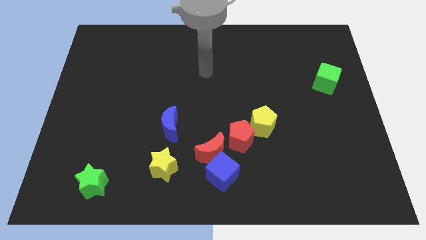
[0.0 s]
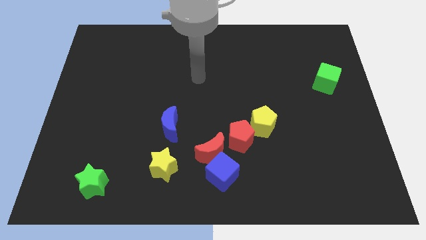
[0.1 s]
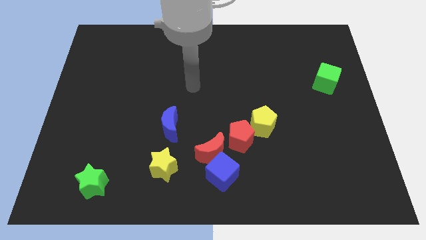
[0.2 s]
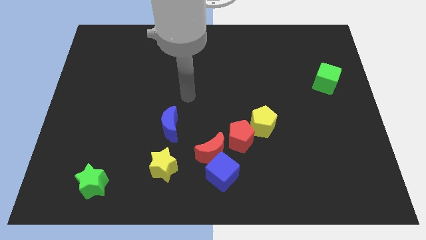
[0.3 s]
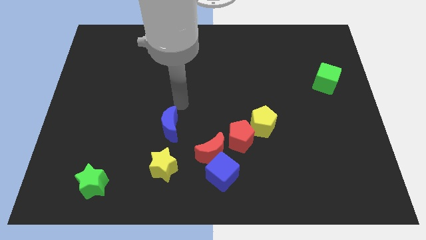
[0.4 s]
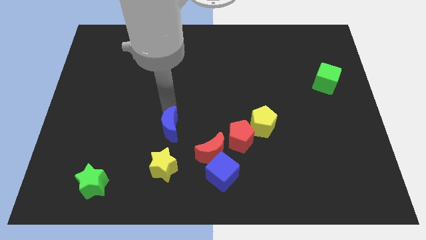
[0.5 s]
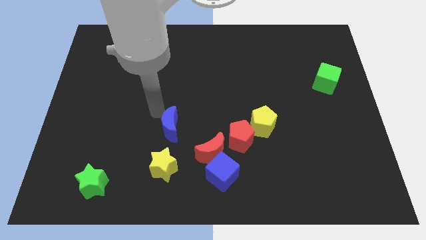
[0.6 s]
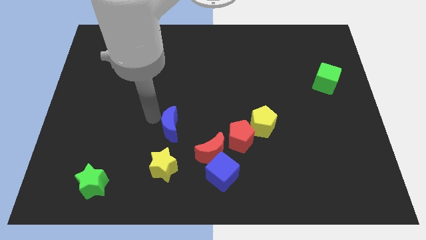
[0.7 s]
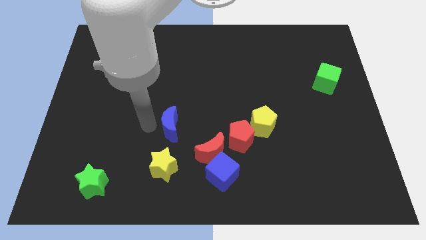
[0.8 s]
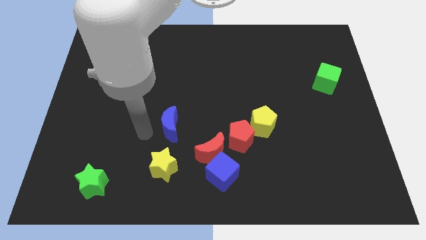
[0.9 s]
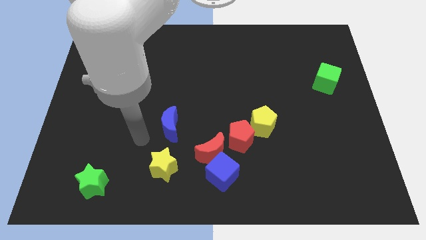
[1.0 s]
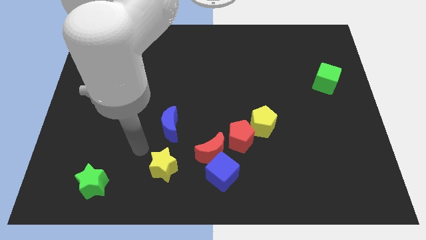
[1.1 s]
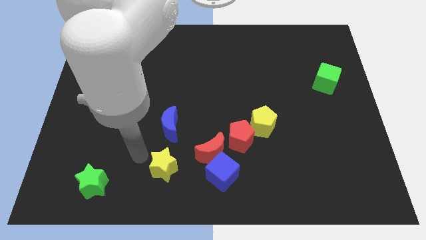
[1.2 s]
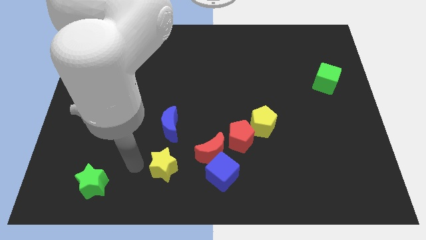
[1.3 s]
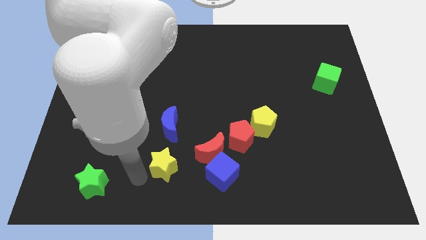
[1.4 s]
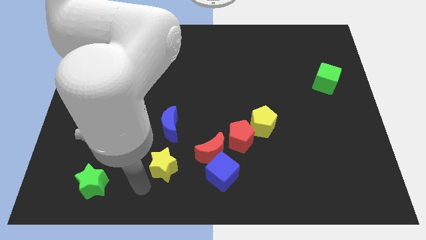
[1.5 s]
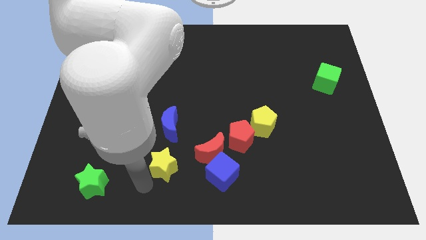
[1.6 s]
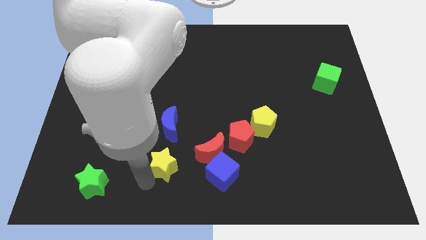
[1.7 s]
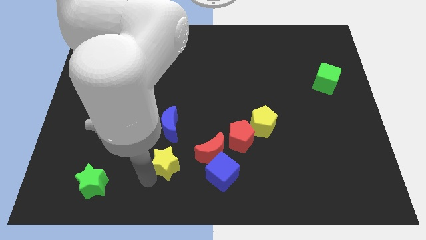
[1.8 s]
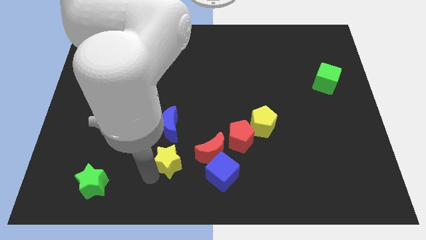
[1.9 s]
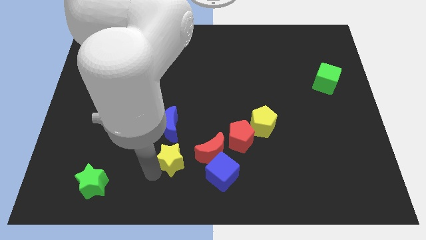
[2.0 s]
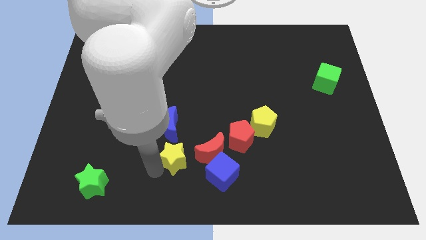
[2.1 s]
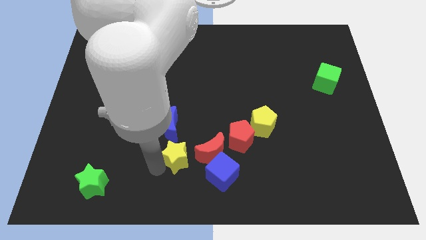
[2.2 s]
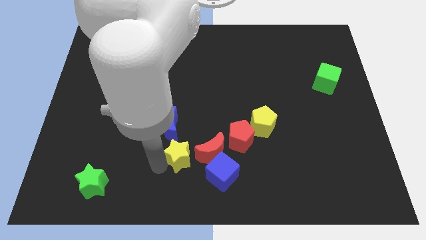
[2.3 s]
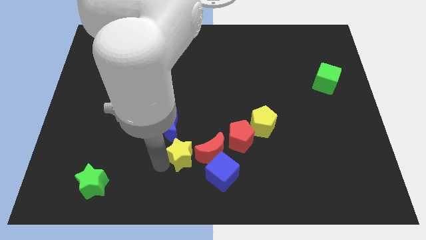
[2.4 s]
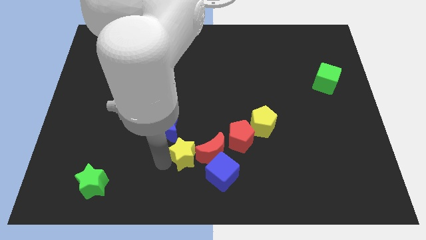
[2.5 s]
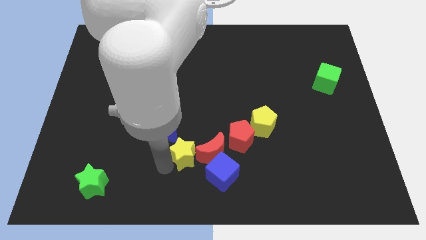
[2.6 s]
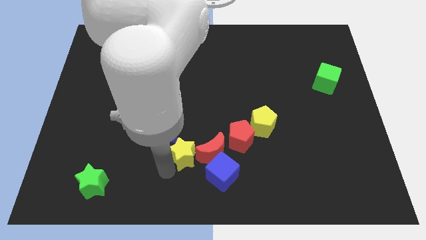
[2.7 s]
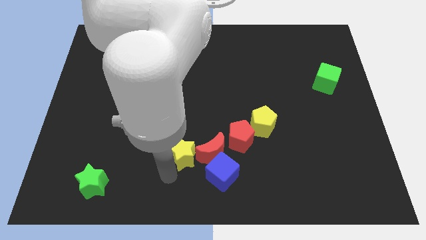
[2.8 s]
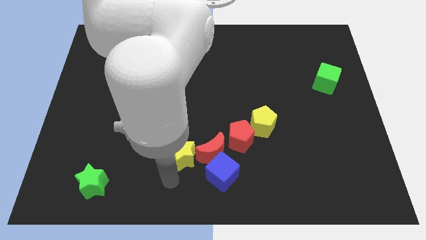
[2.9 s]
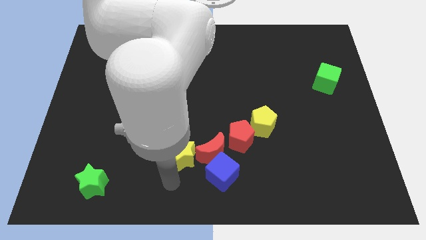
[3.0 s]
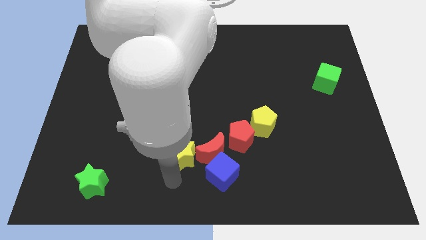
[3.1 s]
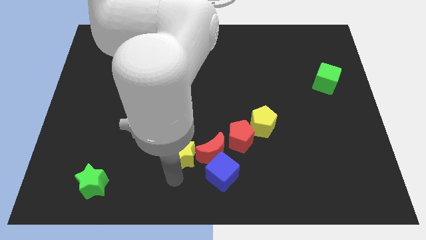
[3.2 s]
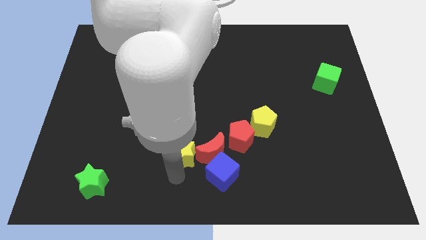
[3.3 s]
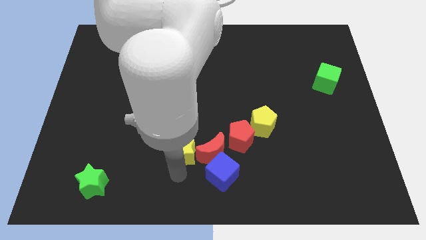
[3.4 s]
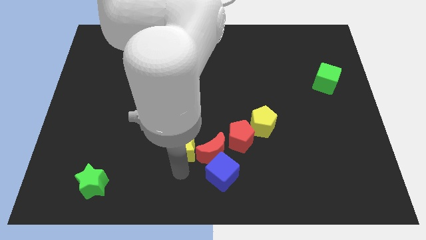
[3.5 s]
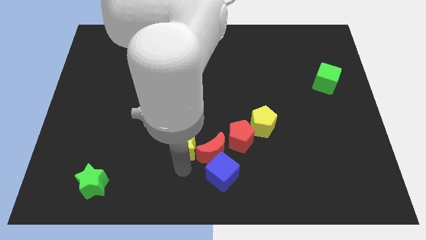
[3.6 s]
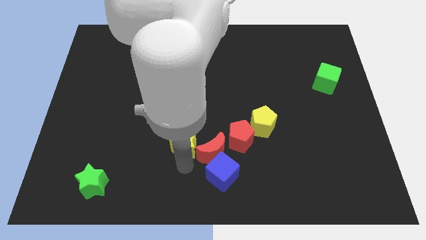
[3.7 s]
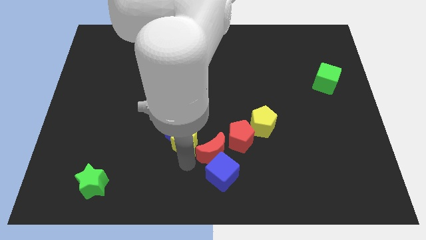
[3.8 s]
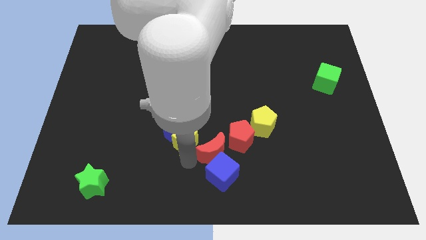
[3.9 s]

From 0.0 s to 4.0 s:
slightly move the yellow star diagonally up and right

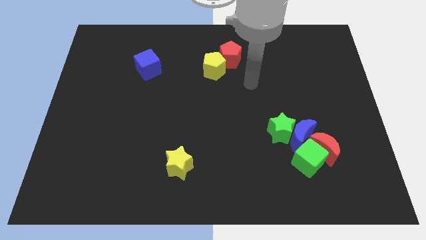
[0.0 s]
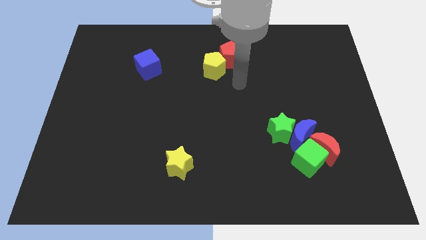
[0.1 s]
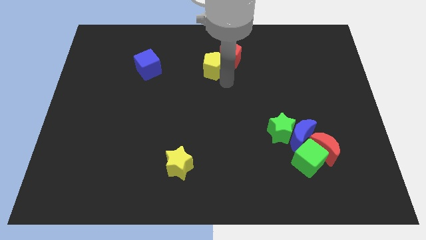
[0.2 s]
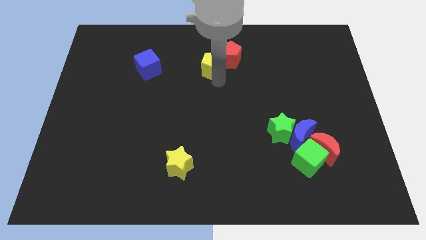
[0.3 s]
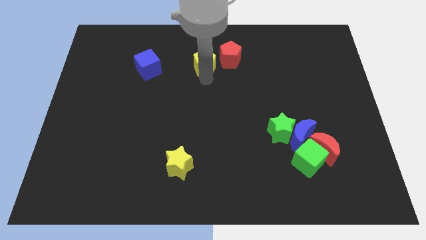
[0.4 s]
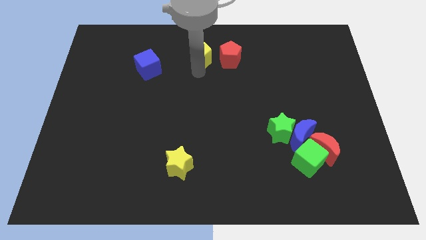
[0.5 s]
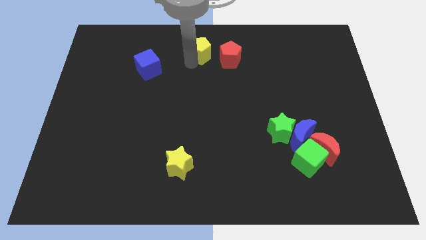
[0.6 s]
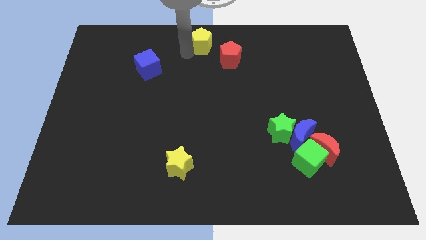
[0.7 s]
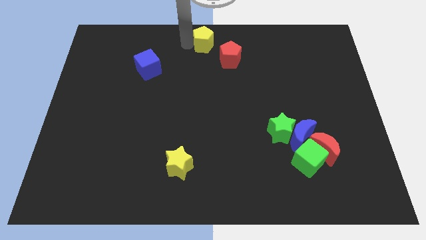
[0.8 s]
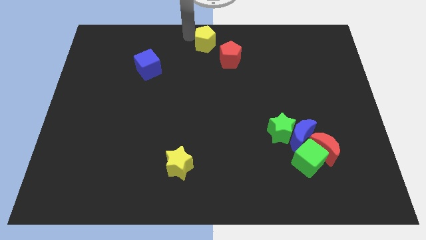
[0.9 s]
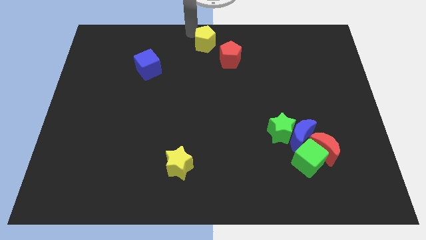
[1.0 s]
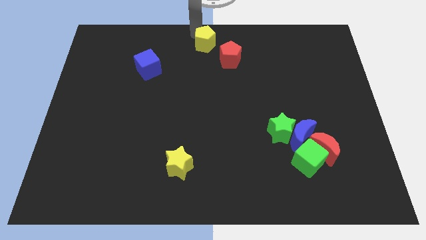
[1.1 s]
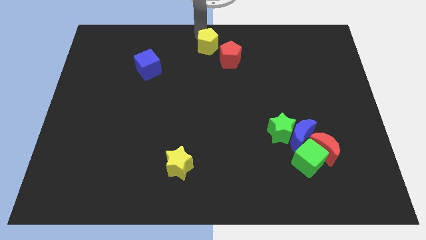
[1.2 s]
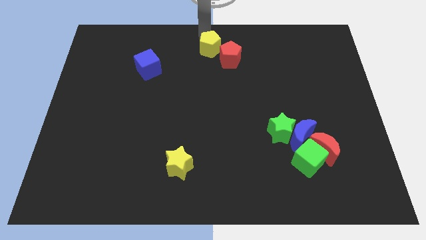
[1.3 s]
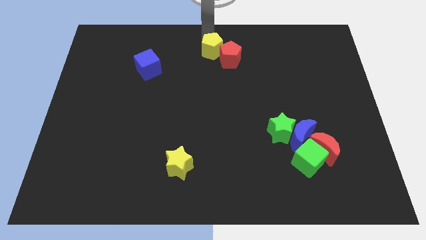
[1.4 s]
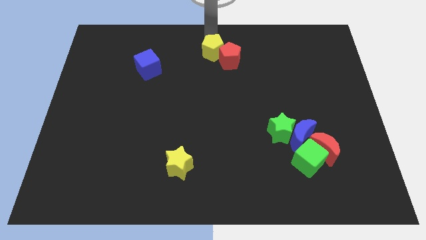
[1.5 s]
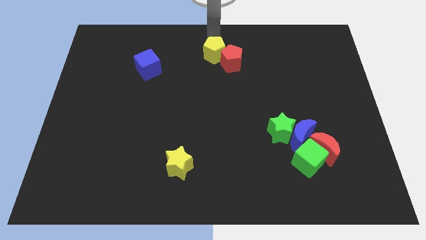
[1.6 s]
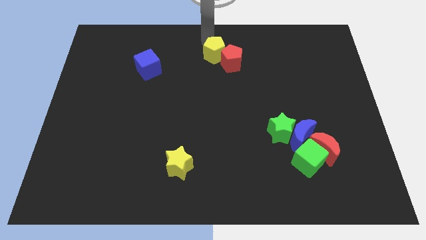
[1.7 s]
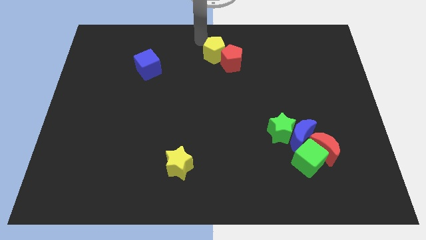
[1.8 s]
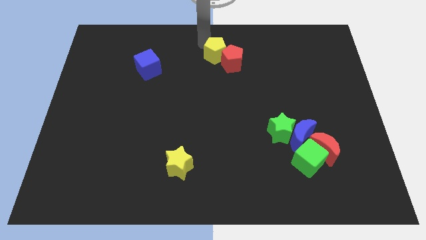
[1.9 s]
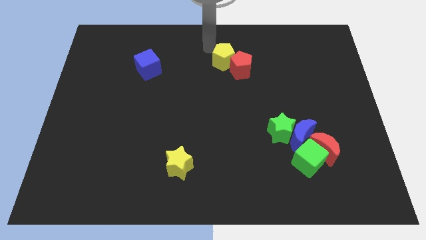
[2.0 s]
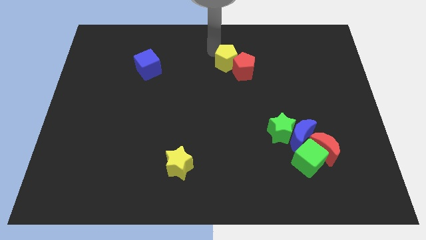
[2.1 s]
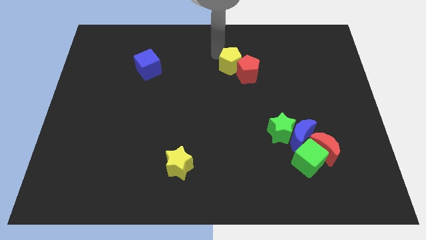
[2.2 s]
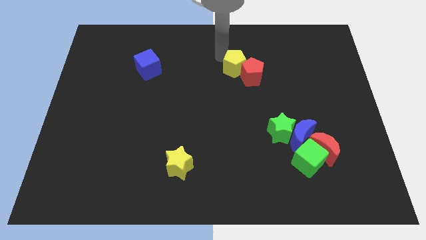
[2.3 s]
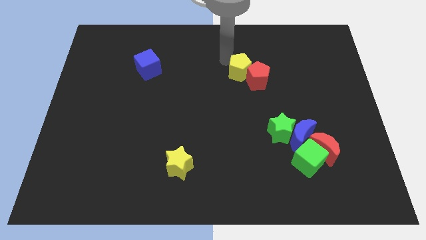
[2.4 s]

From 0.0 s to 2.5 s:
push the yellow pentagon slightly to the right

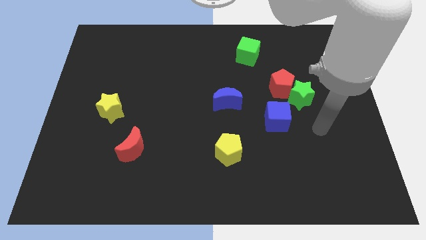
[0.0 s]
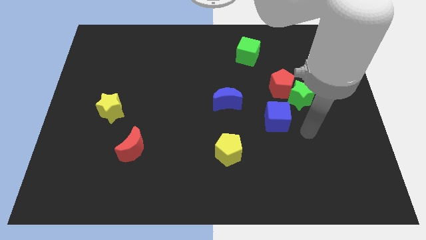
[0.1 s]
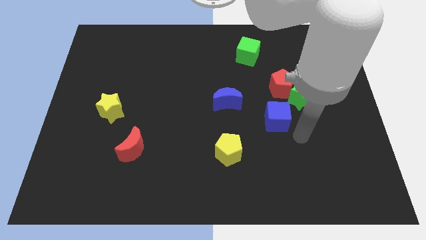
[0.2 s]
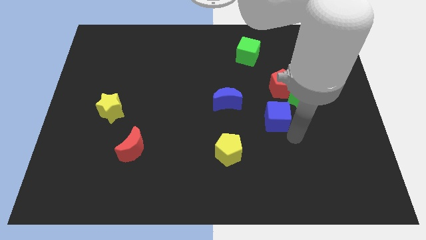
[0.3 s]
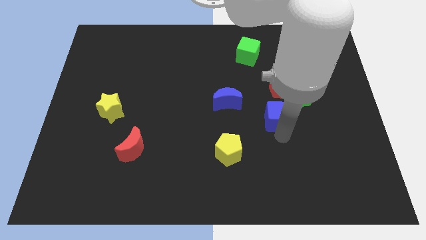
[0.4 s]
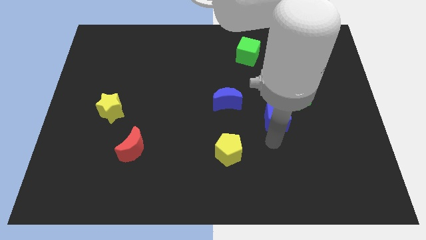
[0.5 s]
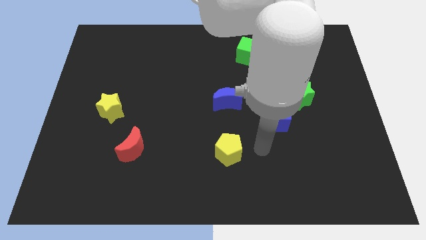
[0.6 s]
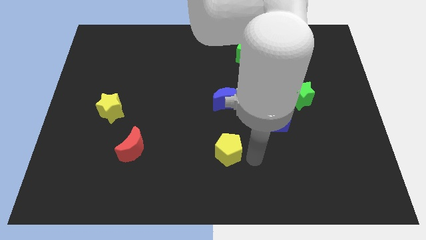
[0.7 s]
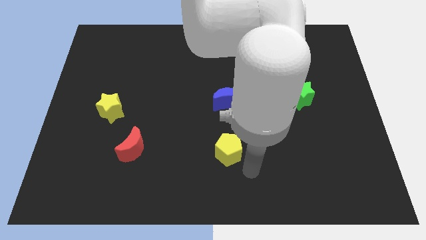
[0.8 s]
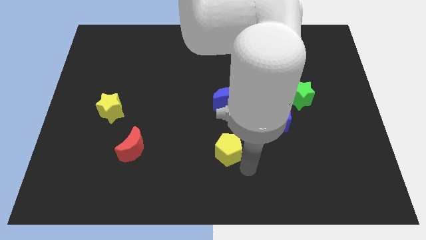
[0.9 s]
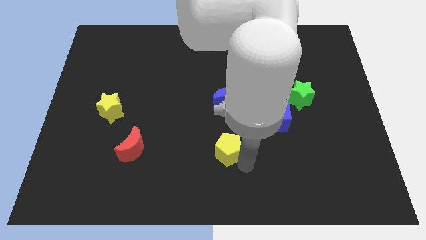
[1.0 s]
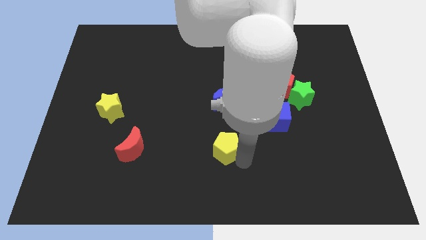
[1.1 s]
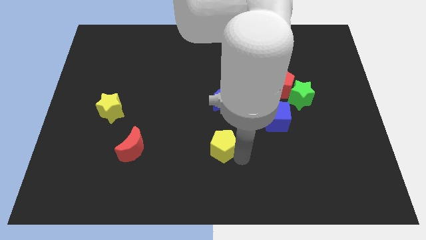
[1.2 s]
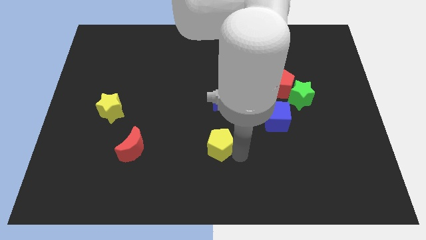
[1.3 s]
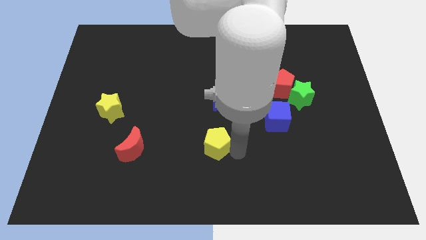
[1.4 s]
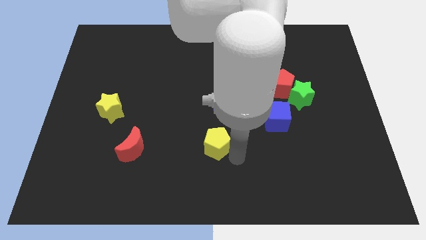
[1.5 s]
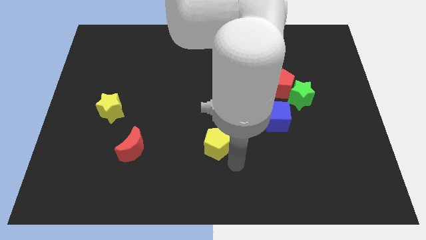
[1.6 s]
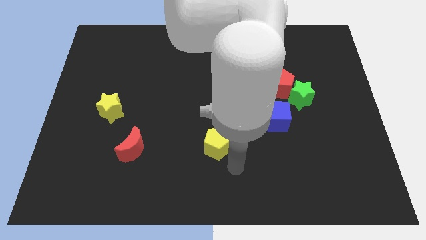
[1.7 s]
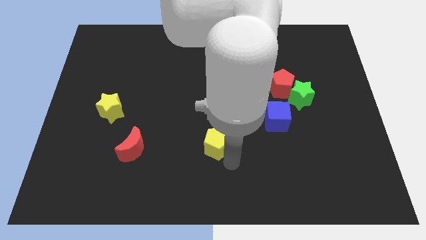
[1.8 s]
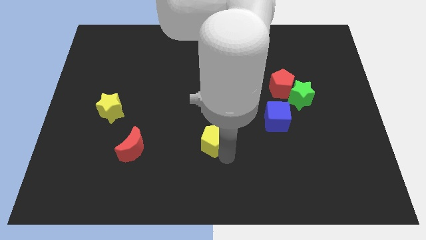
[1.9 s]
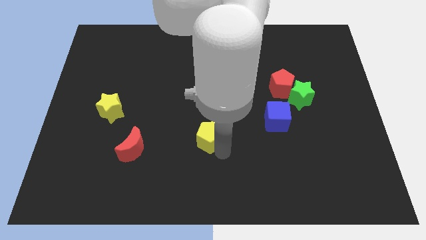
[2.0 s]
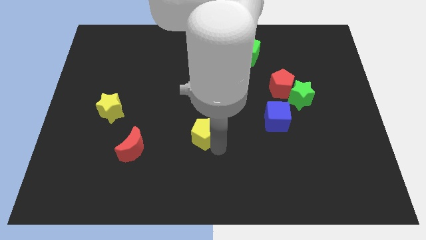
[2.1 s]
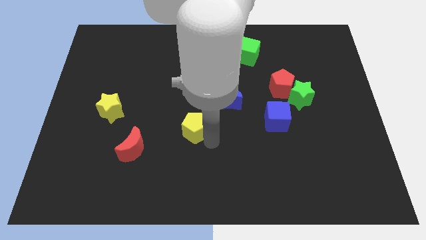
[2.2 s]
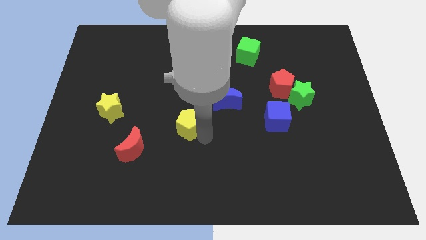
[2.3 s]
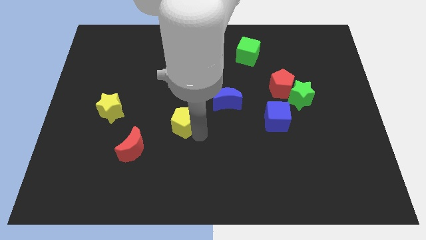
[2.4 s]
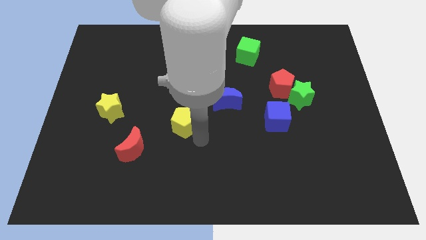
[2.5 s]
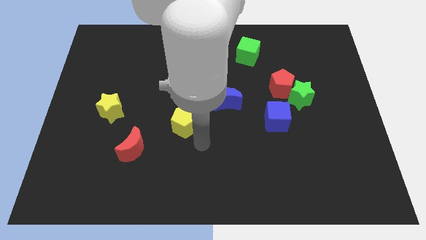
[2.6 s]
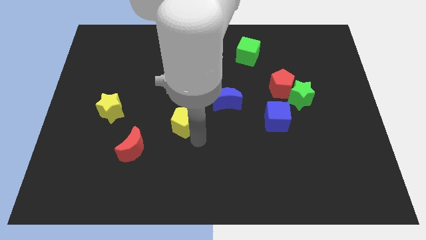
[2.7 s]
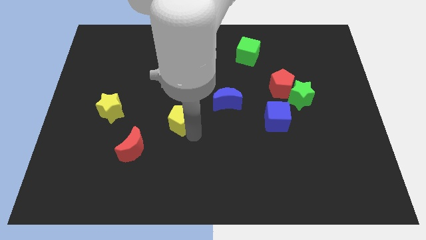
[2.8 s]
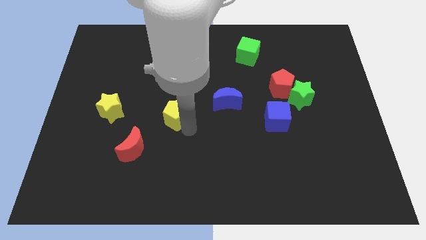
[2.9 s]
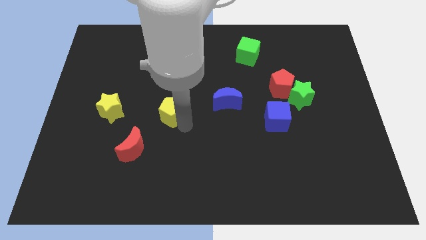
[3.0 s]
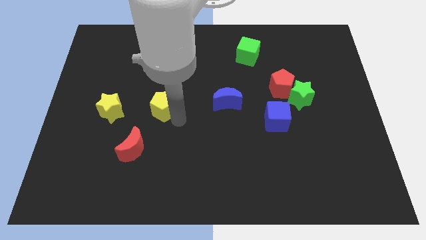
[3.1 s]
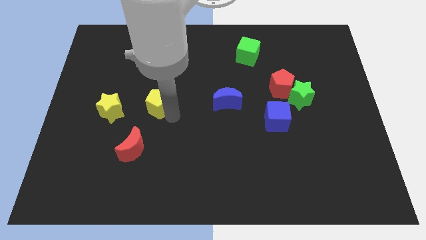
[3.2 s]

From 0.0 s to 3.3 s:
push the yellow pentagon up and then to the left
